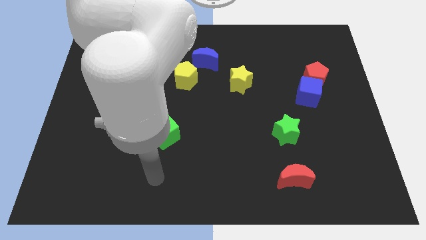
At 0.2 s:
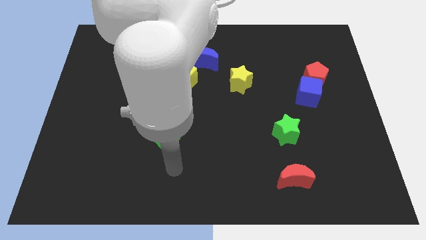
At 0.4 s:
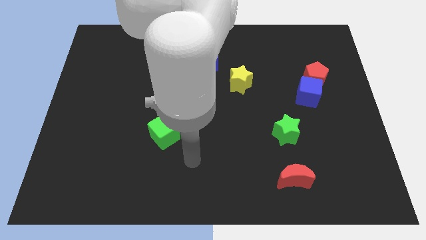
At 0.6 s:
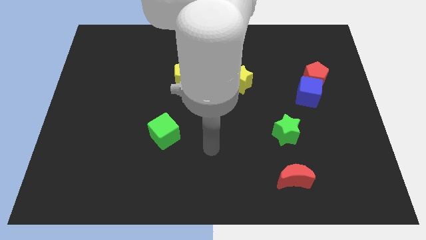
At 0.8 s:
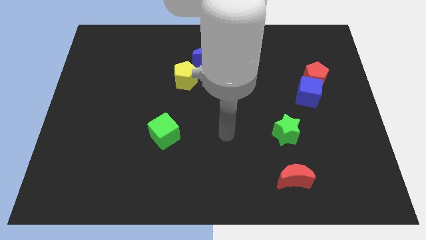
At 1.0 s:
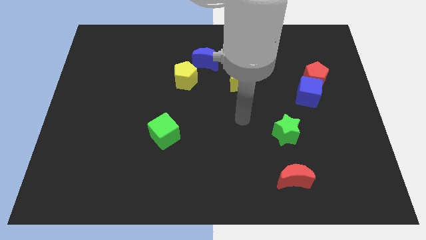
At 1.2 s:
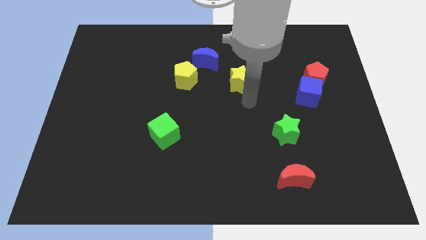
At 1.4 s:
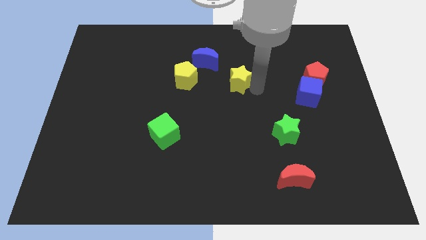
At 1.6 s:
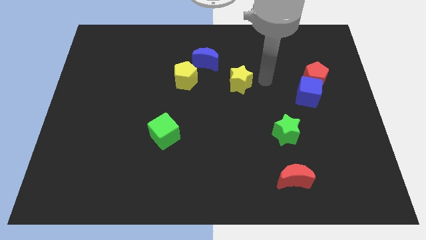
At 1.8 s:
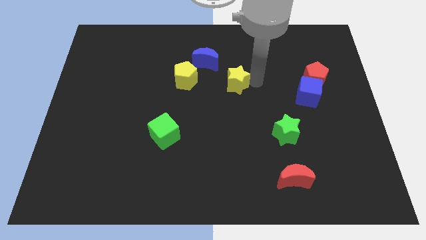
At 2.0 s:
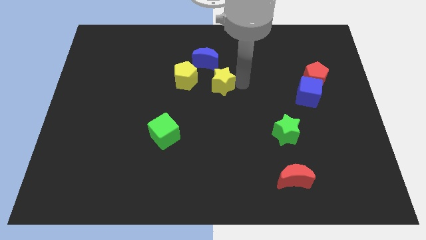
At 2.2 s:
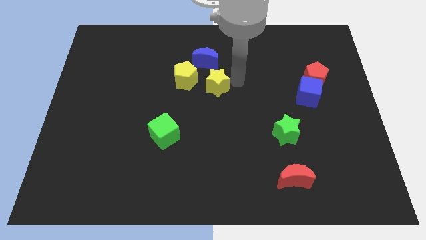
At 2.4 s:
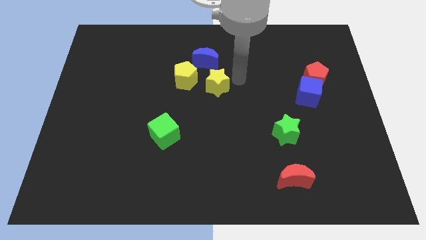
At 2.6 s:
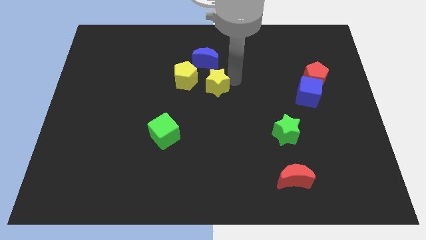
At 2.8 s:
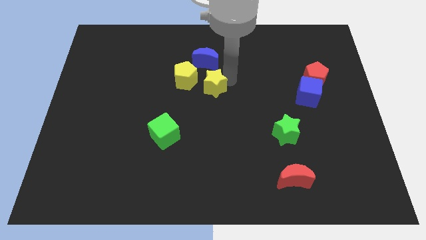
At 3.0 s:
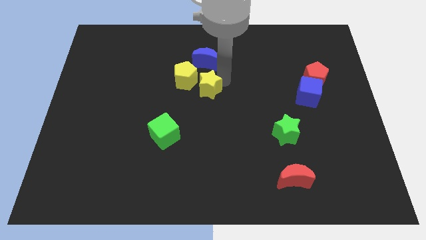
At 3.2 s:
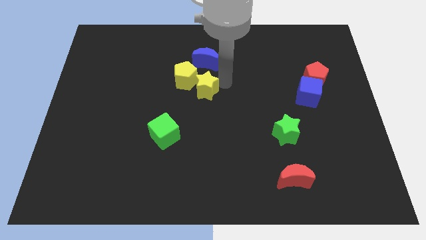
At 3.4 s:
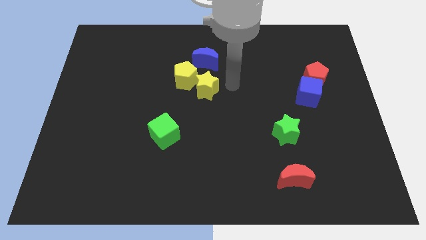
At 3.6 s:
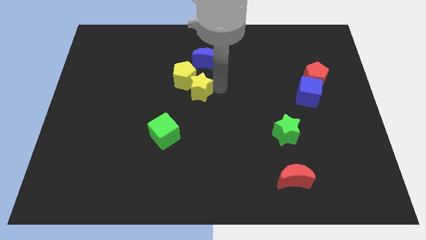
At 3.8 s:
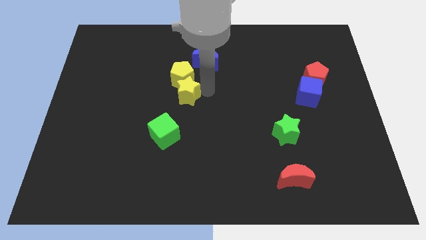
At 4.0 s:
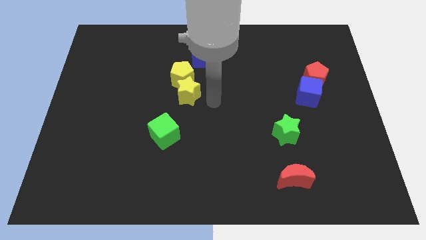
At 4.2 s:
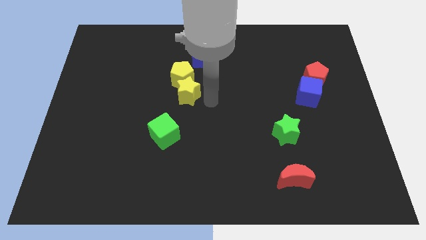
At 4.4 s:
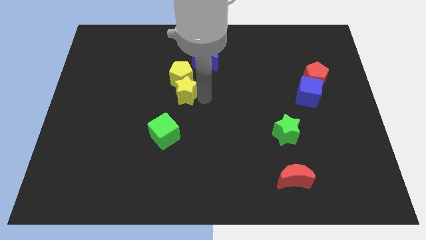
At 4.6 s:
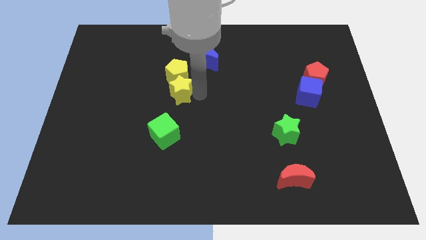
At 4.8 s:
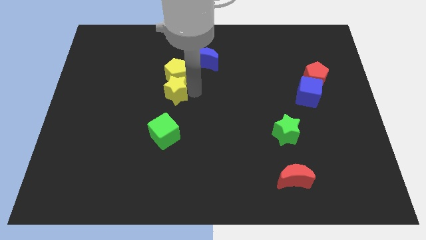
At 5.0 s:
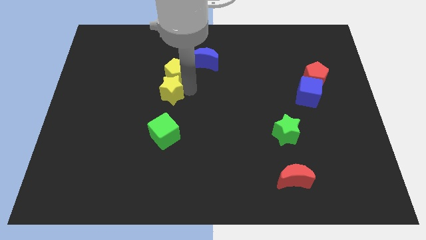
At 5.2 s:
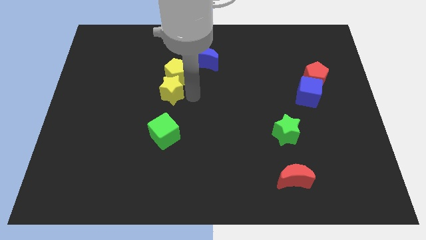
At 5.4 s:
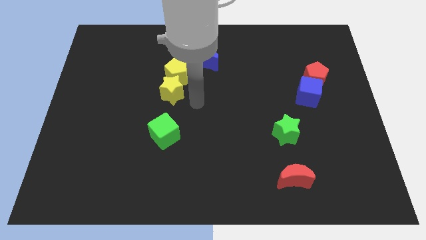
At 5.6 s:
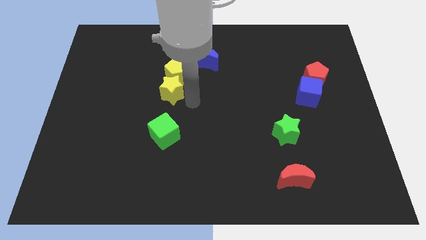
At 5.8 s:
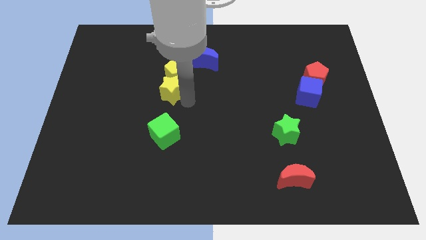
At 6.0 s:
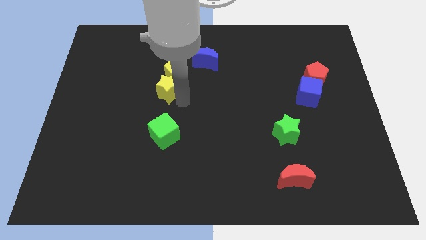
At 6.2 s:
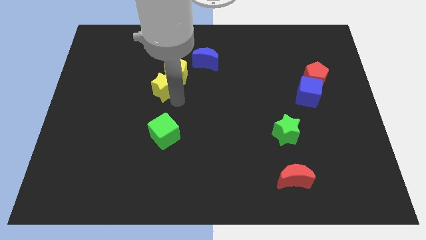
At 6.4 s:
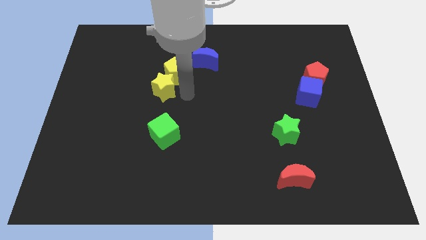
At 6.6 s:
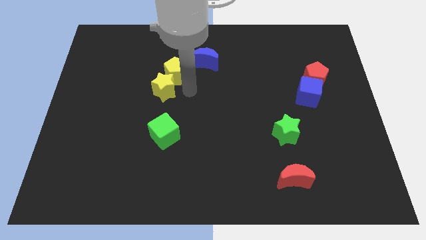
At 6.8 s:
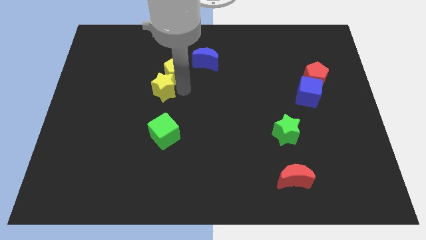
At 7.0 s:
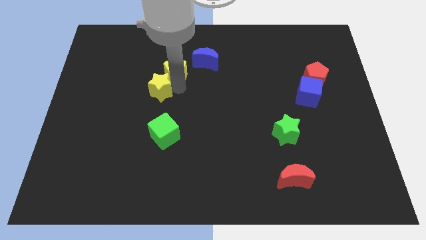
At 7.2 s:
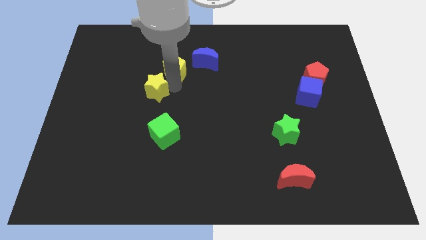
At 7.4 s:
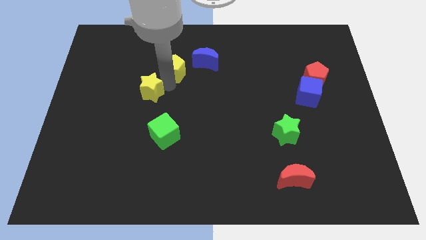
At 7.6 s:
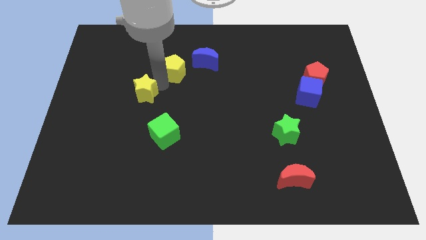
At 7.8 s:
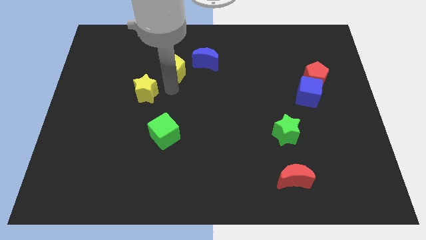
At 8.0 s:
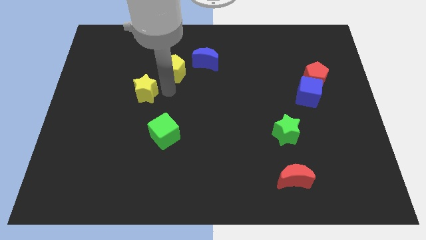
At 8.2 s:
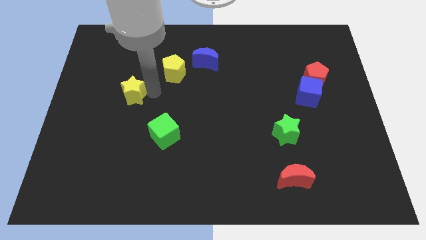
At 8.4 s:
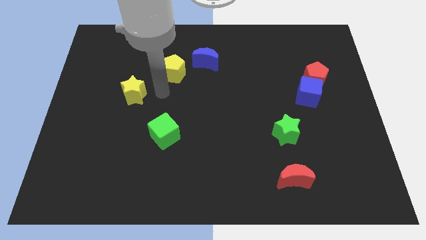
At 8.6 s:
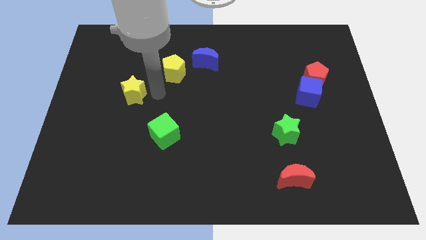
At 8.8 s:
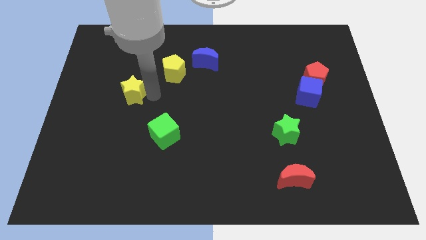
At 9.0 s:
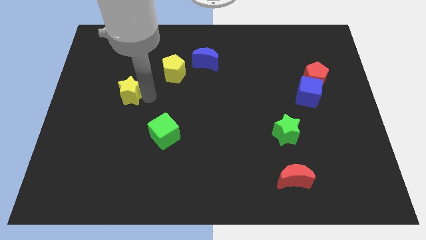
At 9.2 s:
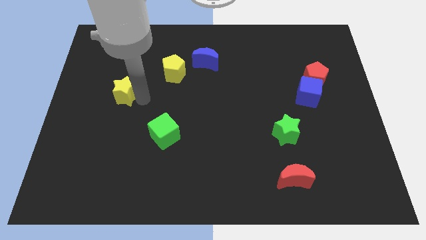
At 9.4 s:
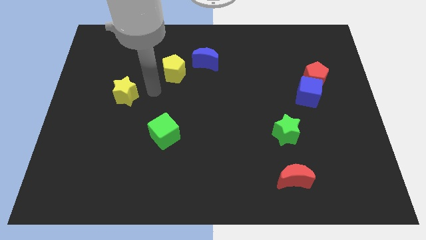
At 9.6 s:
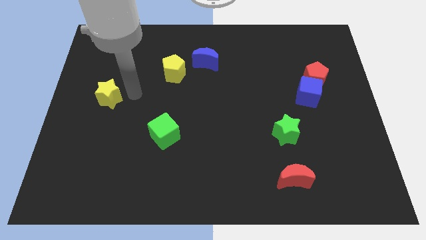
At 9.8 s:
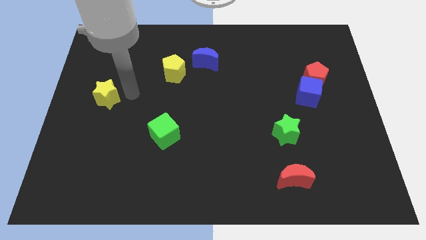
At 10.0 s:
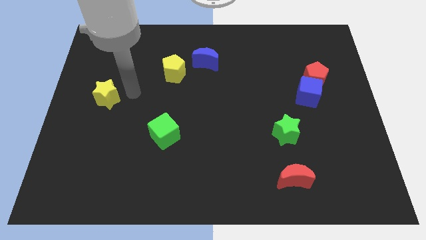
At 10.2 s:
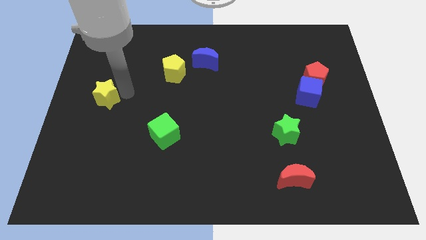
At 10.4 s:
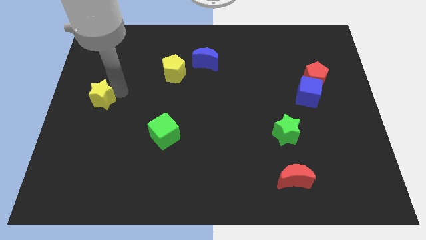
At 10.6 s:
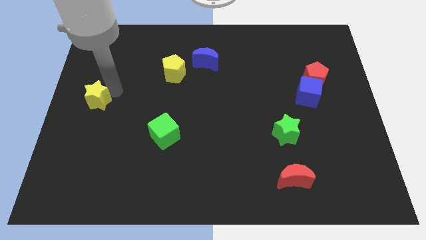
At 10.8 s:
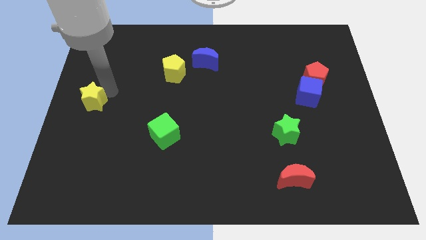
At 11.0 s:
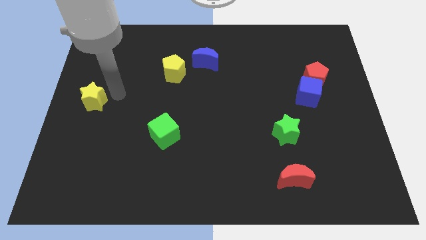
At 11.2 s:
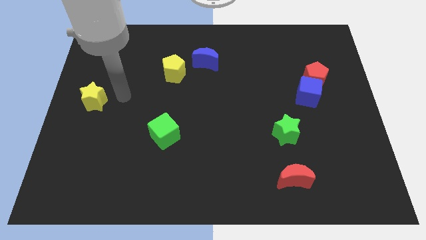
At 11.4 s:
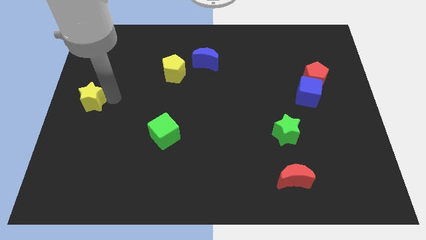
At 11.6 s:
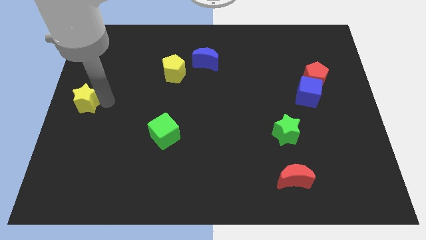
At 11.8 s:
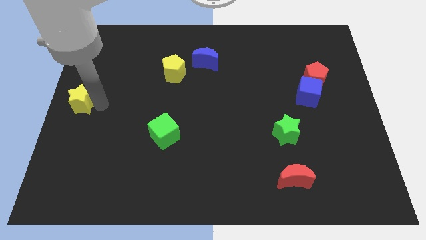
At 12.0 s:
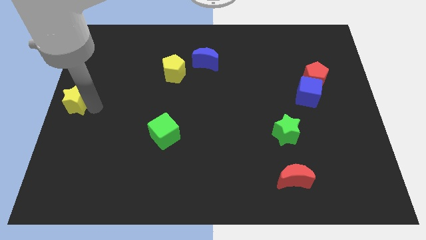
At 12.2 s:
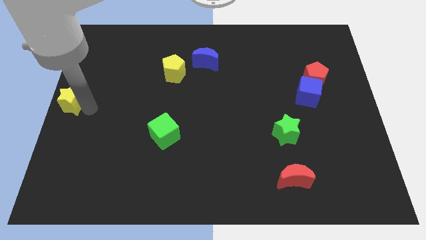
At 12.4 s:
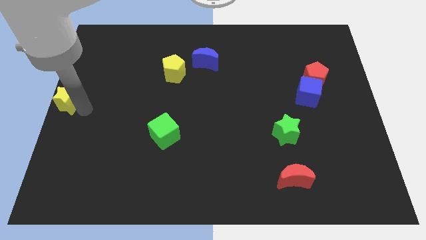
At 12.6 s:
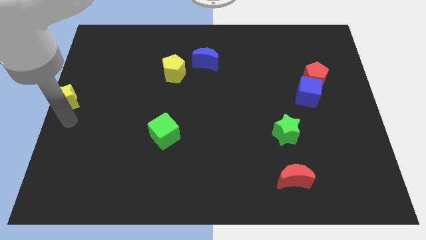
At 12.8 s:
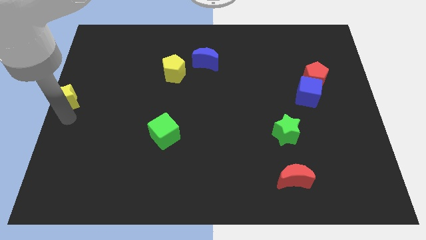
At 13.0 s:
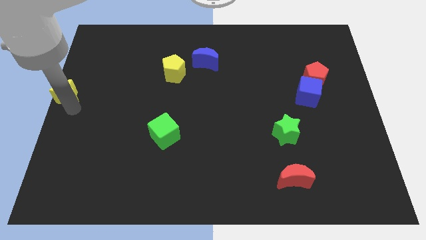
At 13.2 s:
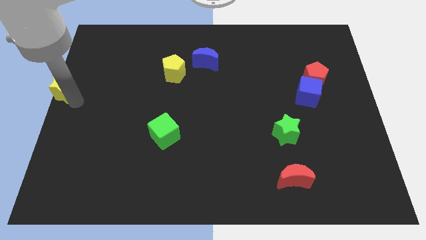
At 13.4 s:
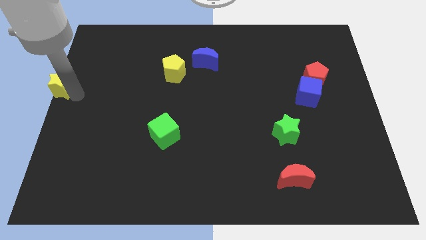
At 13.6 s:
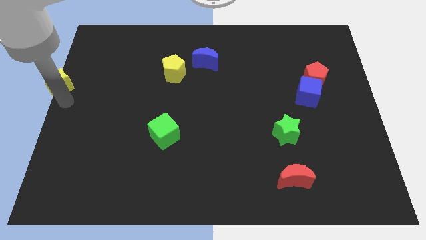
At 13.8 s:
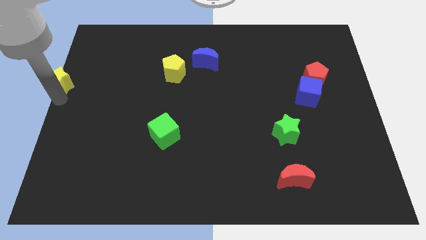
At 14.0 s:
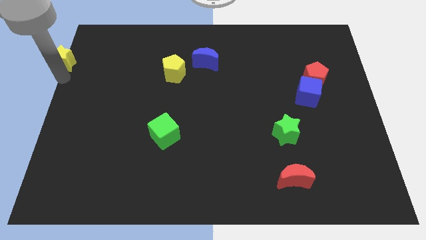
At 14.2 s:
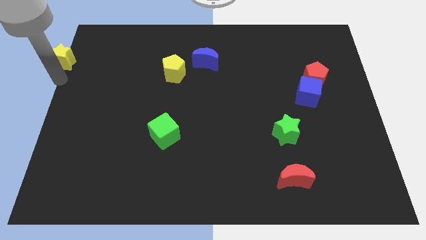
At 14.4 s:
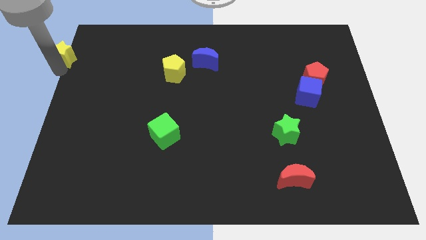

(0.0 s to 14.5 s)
push the yellow star to the top left

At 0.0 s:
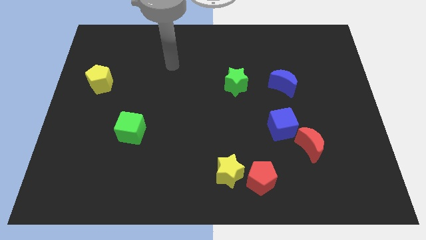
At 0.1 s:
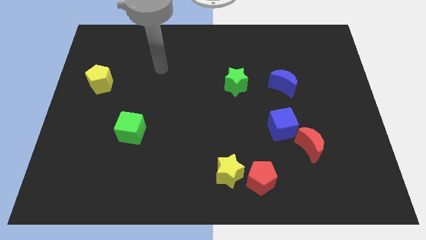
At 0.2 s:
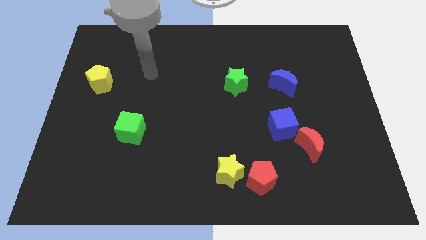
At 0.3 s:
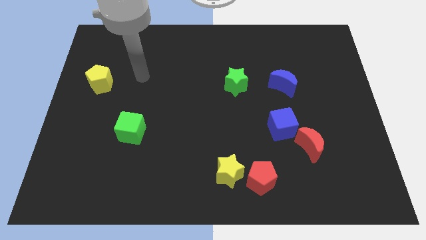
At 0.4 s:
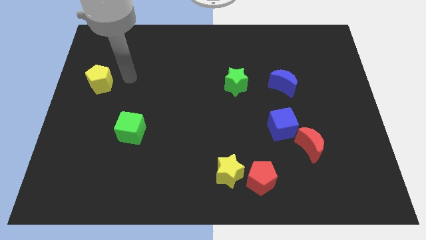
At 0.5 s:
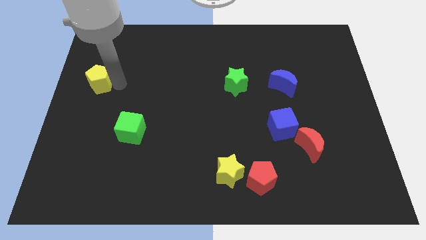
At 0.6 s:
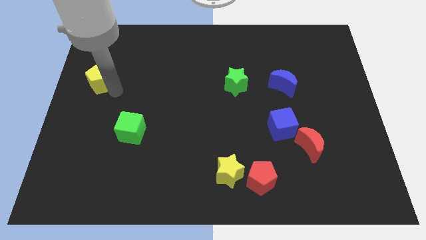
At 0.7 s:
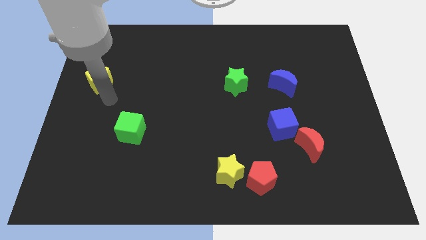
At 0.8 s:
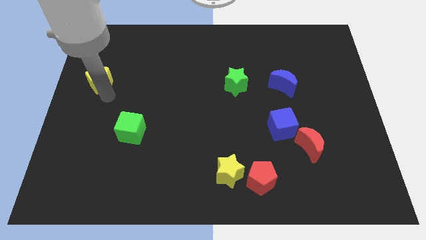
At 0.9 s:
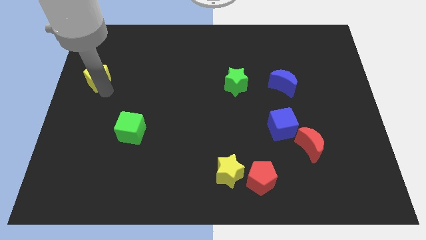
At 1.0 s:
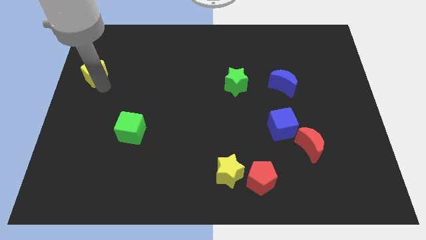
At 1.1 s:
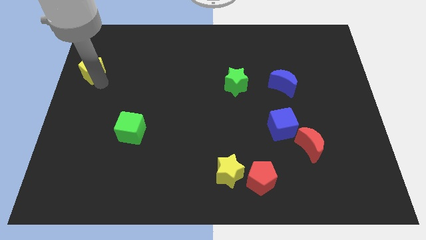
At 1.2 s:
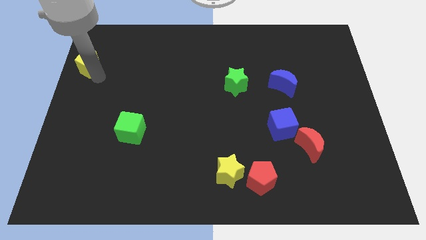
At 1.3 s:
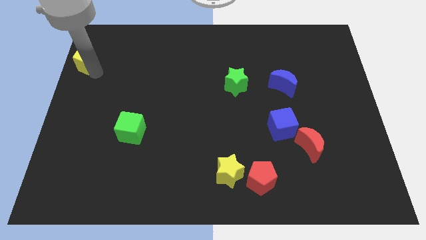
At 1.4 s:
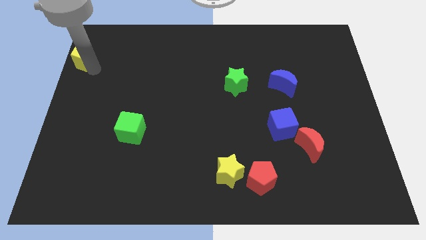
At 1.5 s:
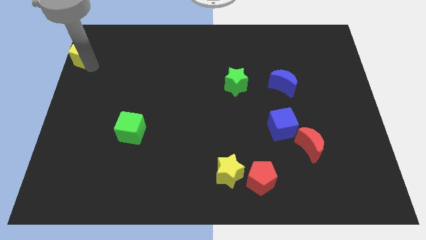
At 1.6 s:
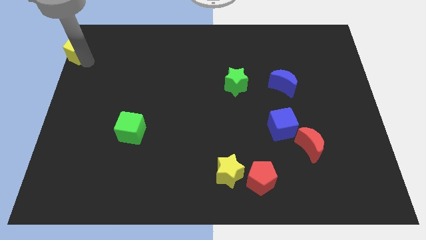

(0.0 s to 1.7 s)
slide the yellow pentagon to the top left of the board
